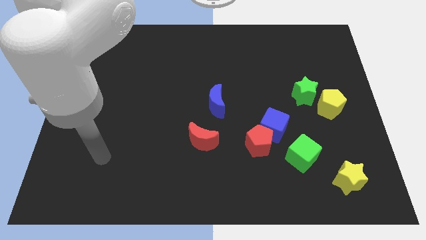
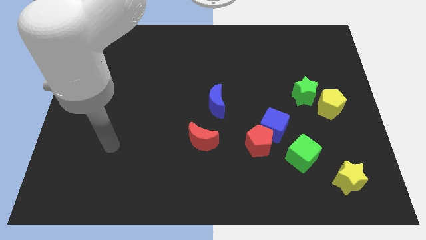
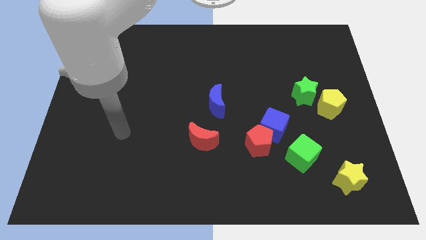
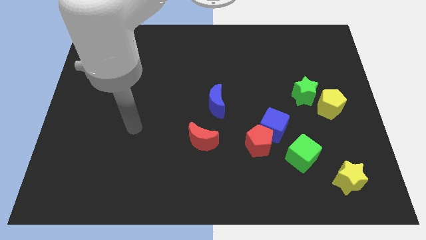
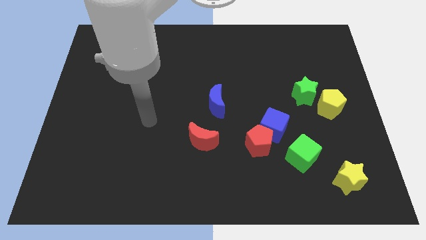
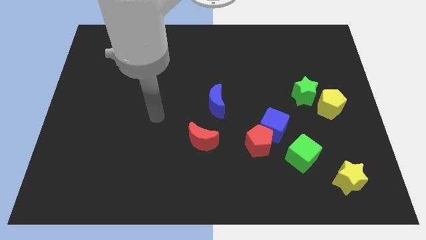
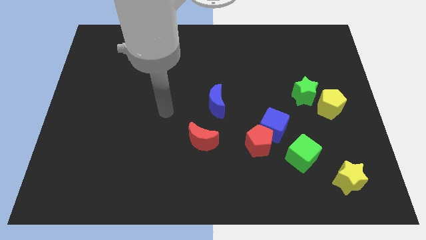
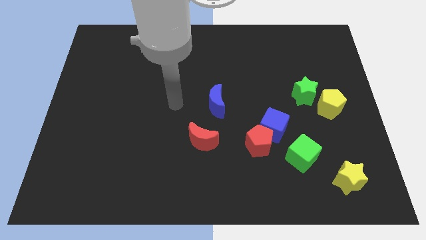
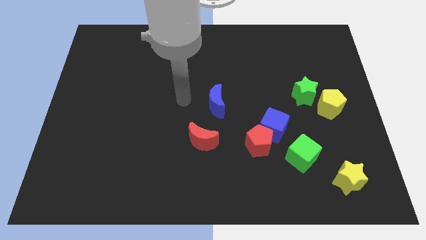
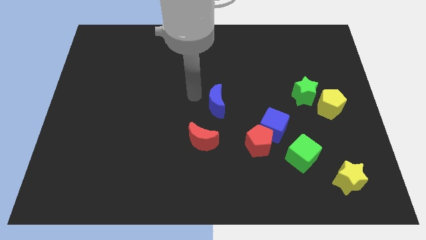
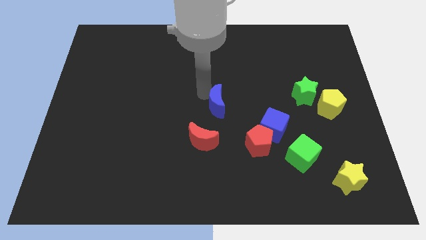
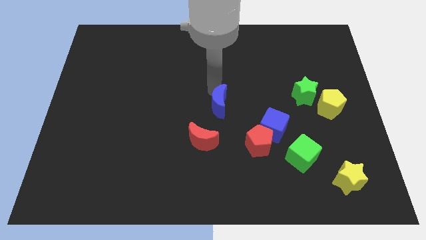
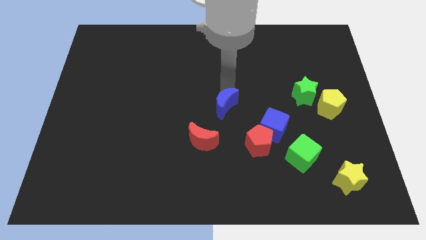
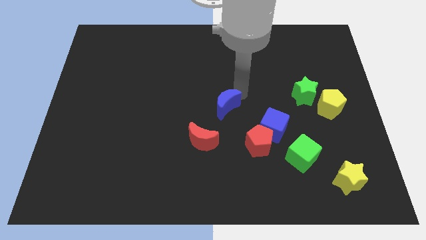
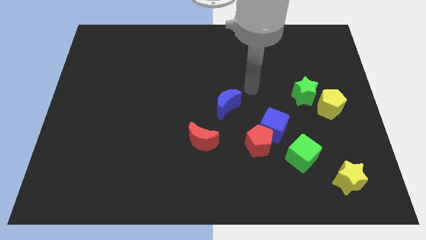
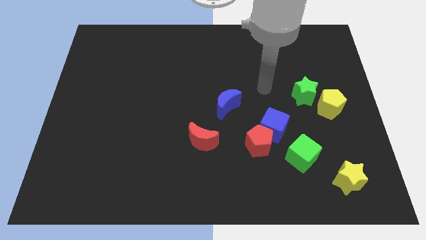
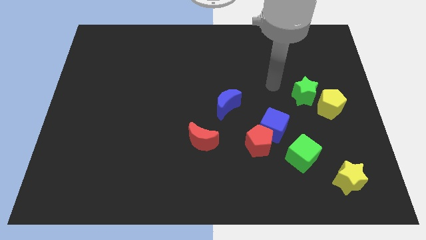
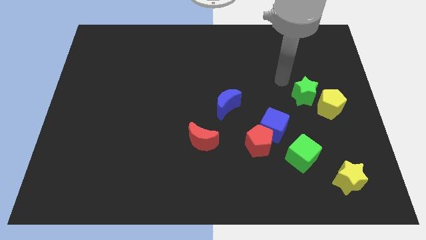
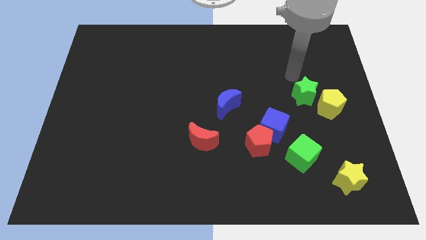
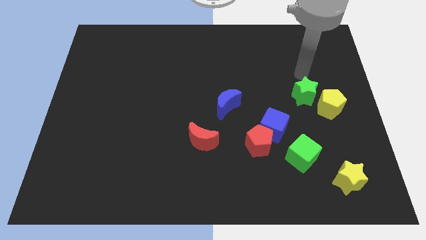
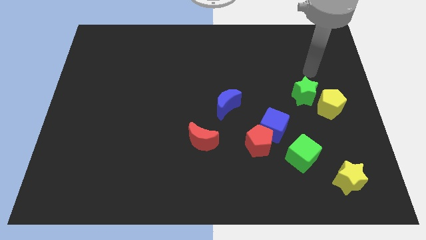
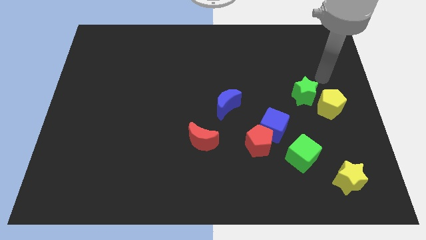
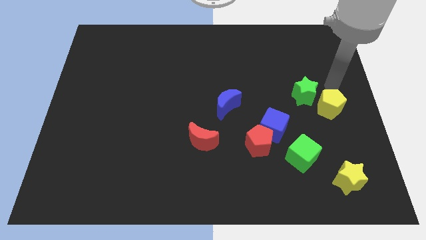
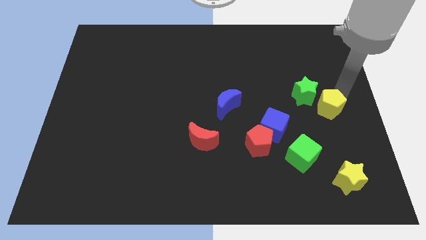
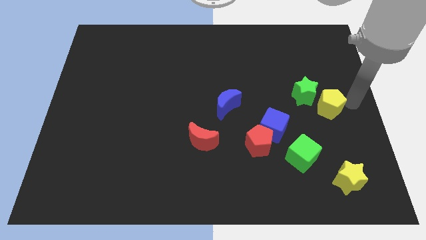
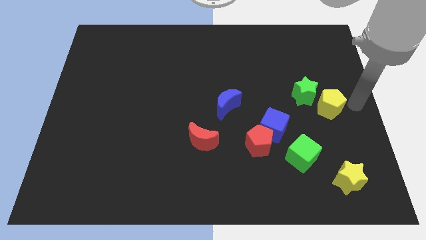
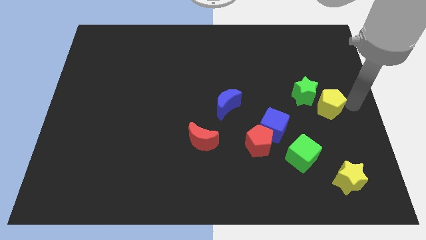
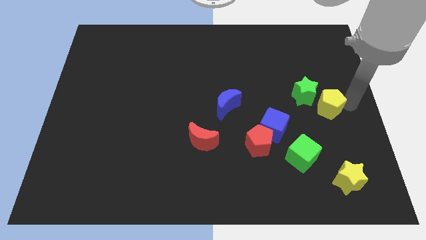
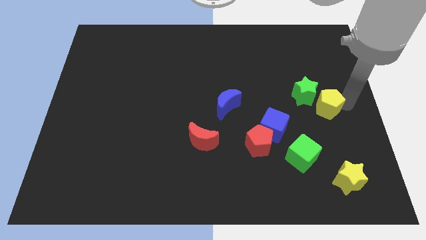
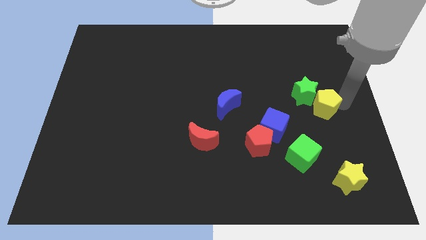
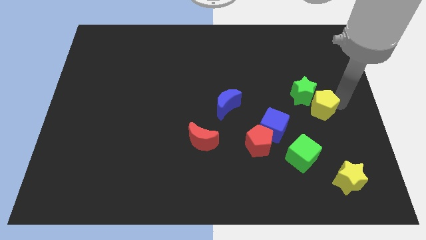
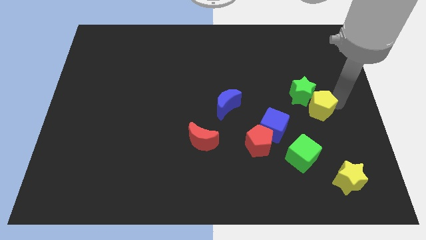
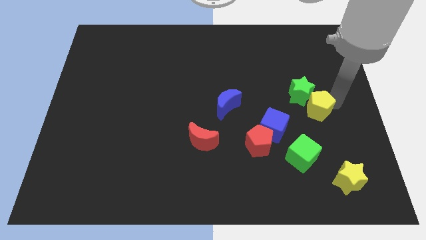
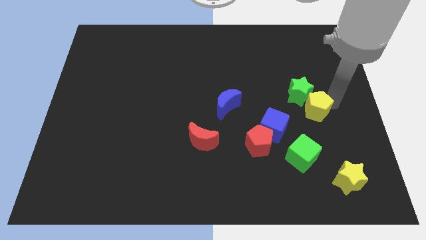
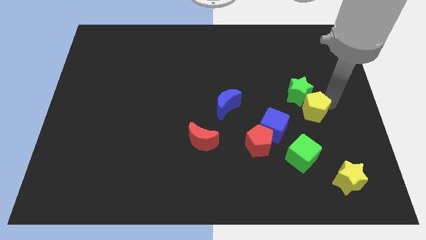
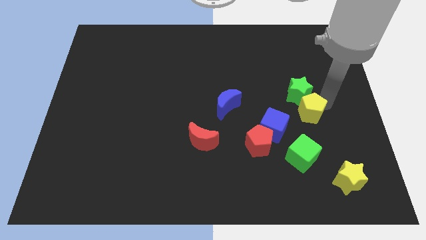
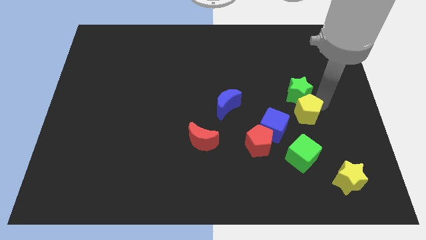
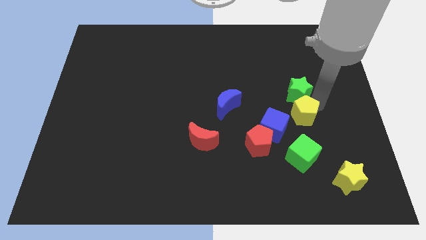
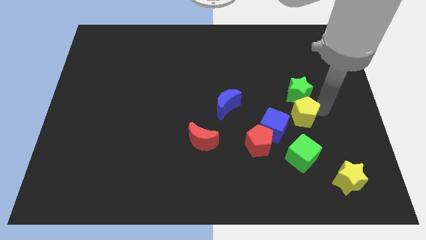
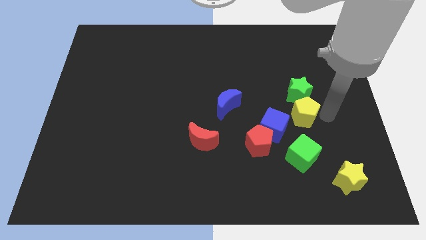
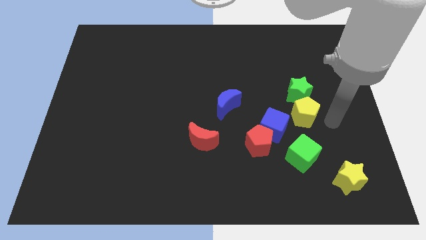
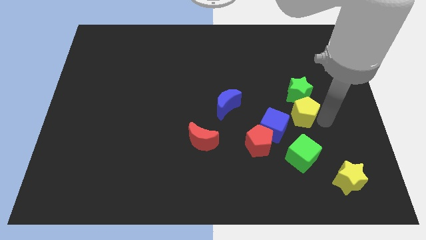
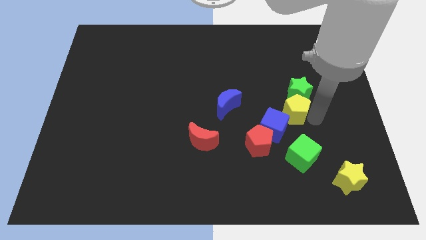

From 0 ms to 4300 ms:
move the yellow pentagon a little to the left

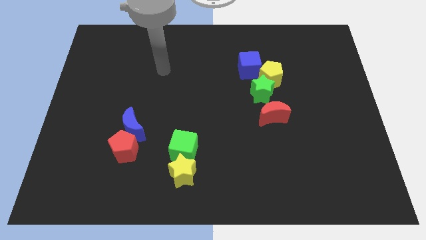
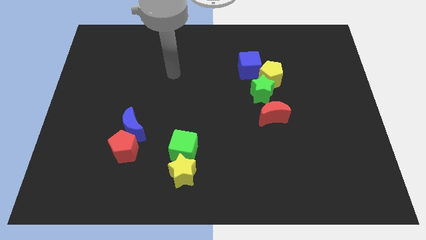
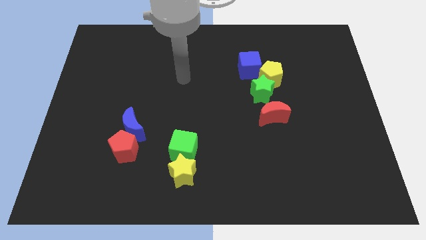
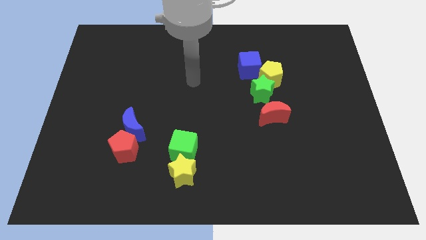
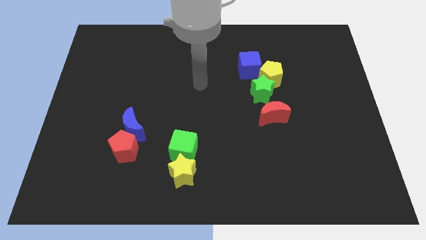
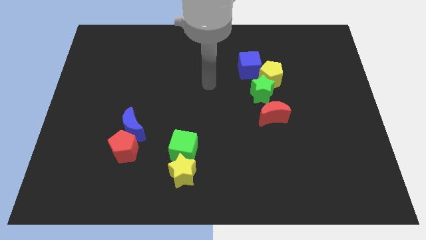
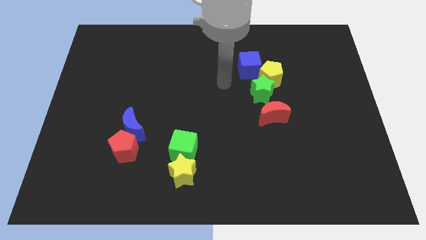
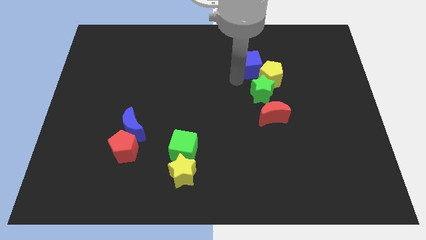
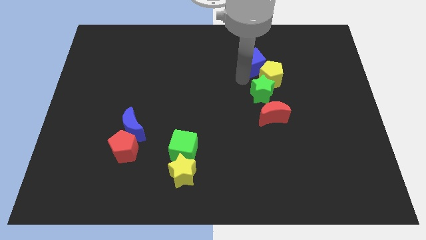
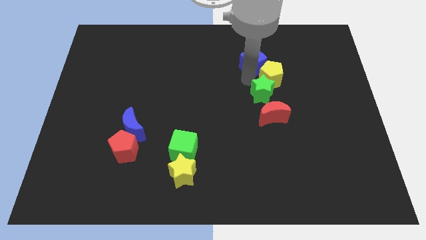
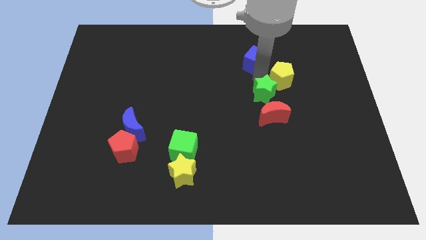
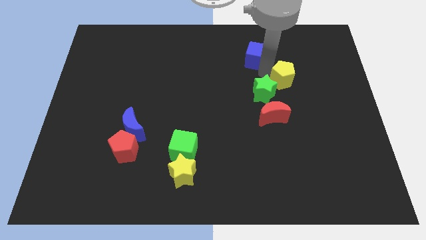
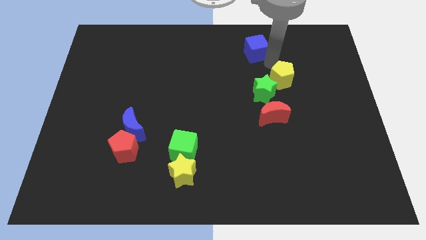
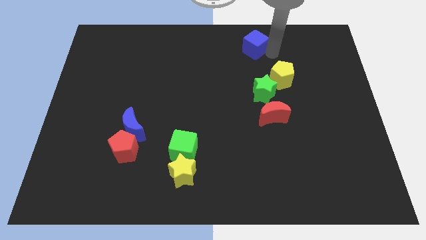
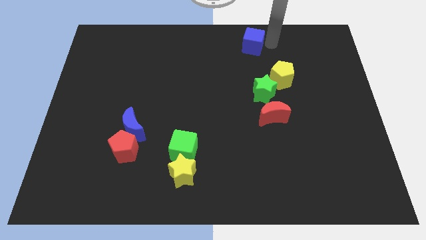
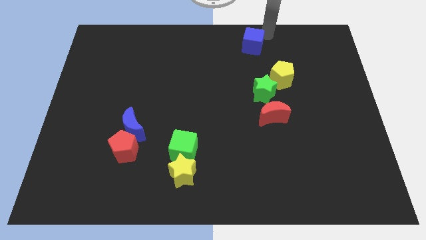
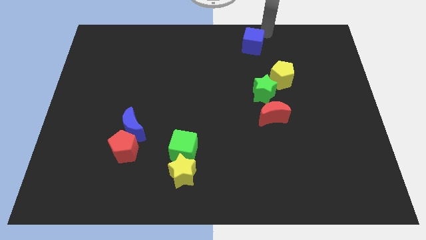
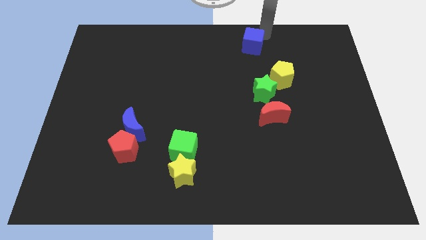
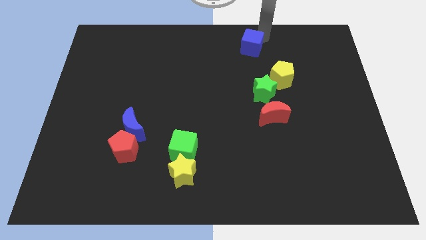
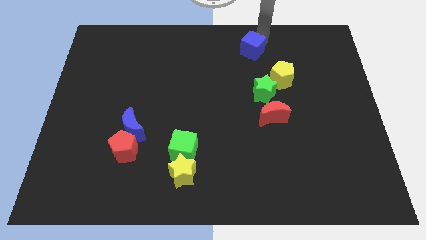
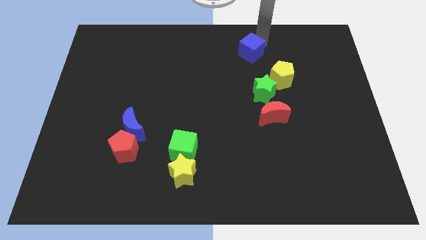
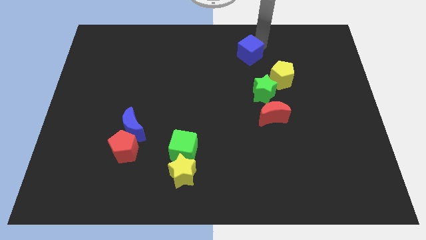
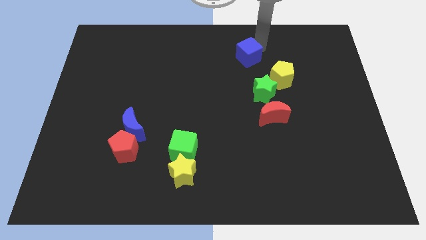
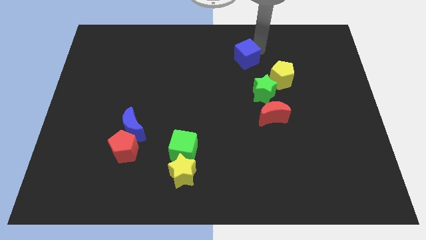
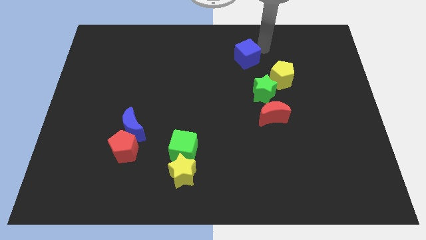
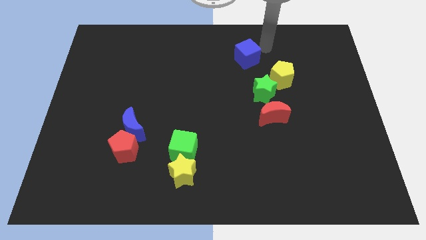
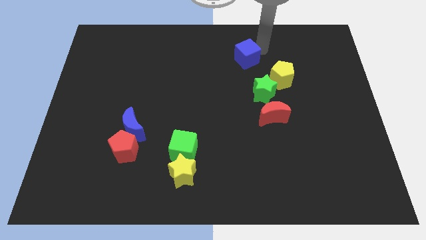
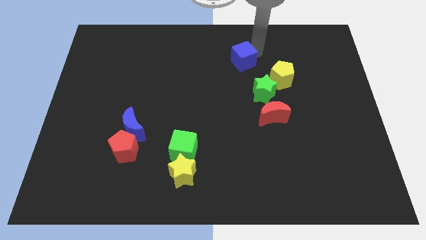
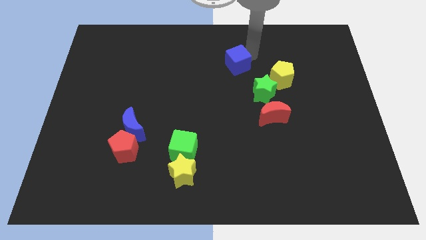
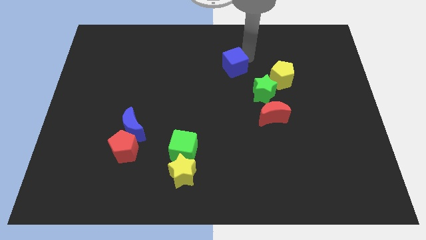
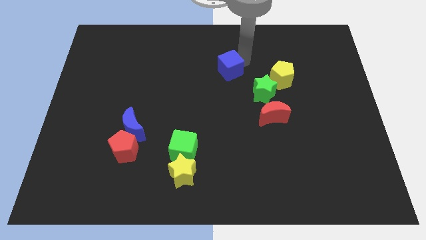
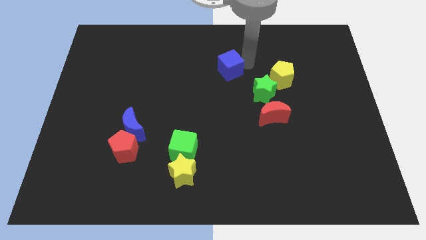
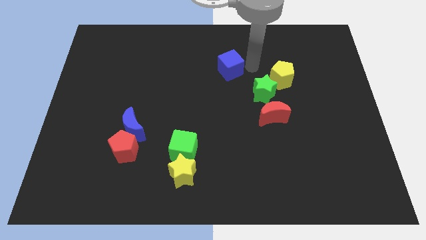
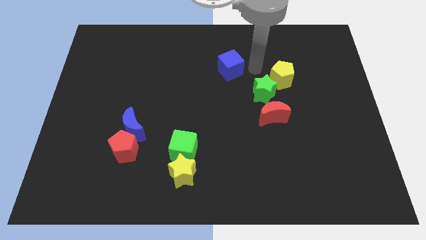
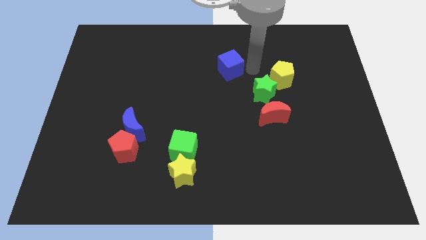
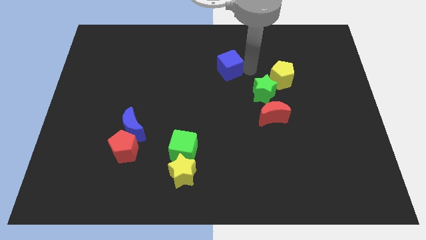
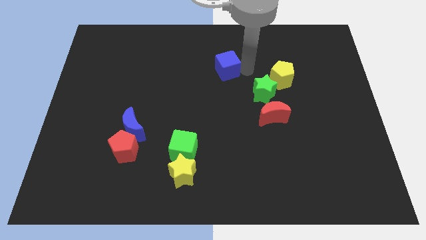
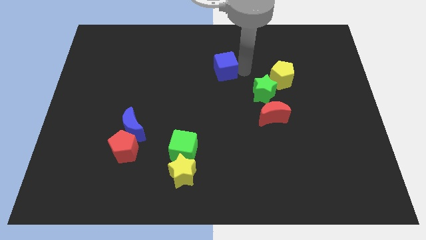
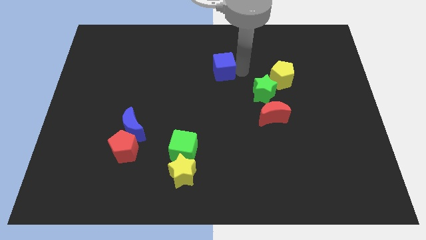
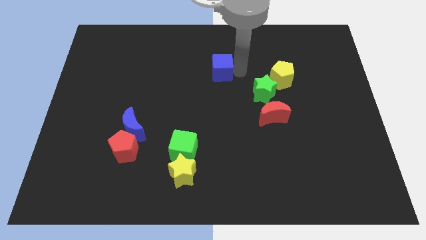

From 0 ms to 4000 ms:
push the blue cube left a little bit
